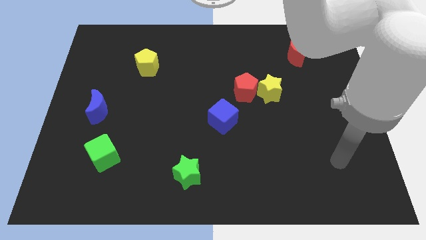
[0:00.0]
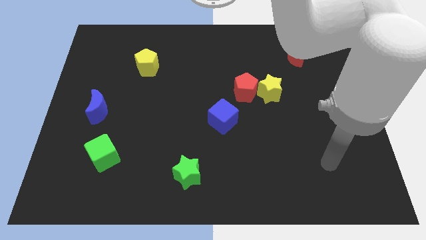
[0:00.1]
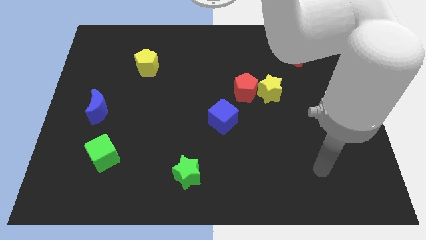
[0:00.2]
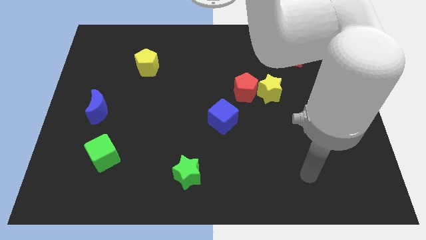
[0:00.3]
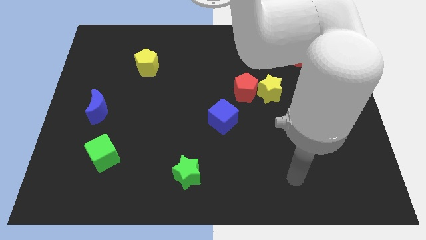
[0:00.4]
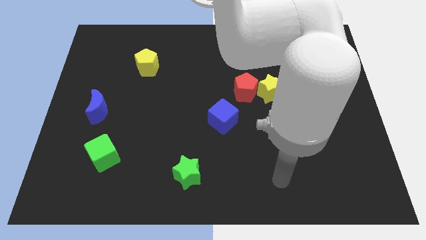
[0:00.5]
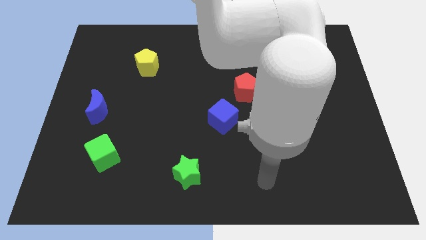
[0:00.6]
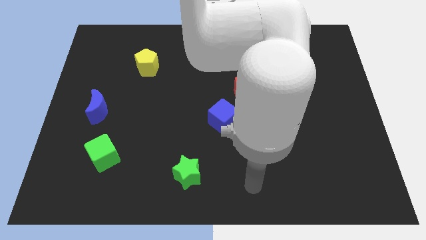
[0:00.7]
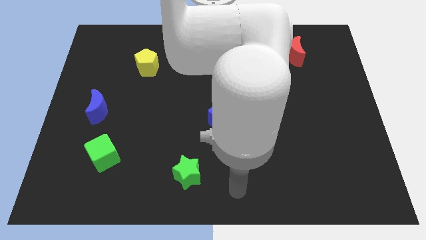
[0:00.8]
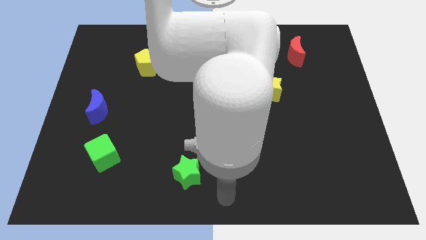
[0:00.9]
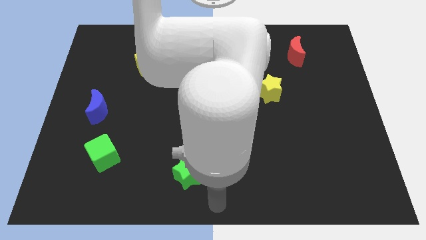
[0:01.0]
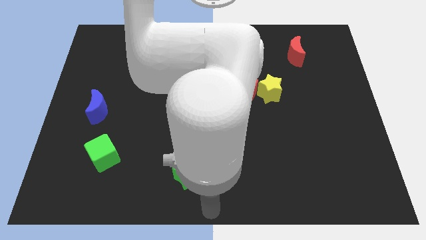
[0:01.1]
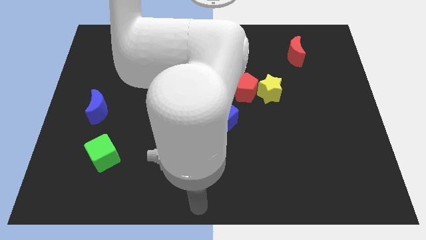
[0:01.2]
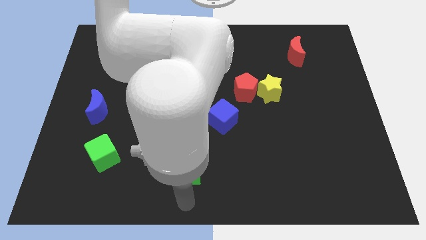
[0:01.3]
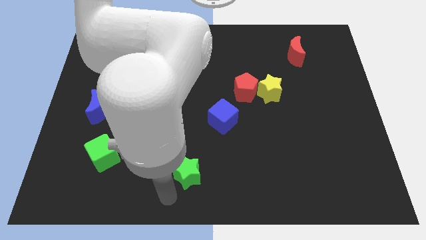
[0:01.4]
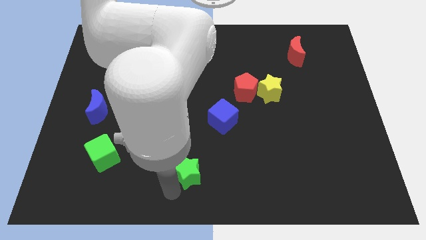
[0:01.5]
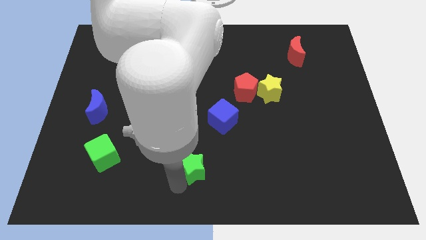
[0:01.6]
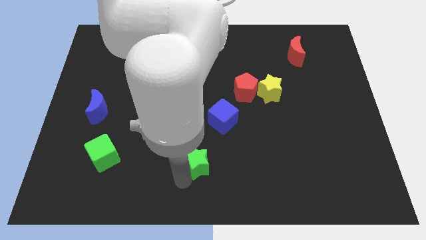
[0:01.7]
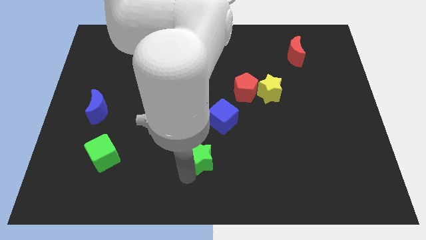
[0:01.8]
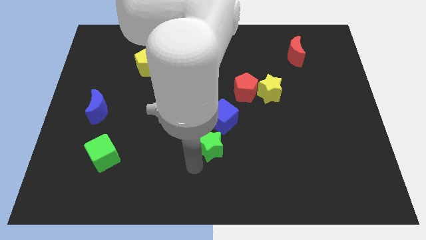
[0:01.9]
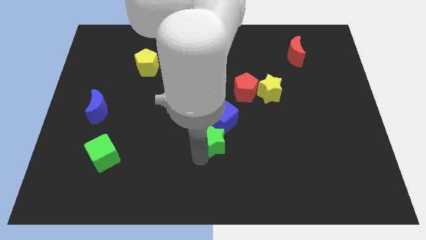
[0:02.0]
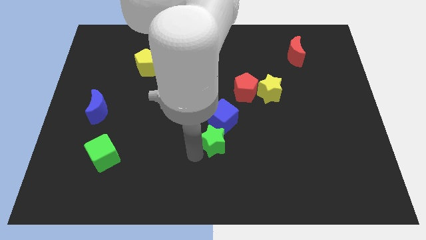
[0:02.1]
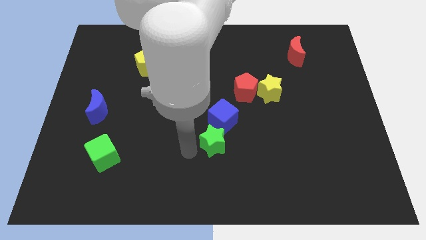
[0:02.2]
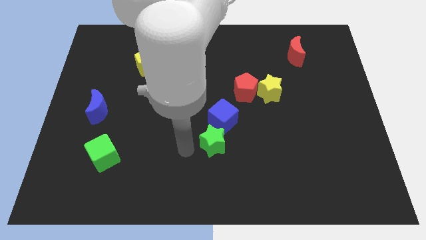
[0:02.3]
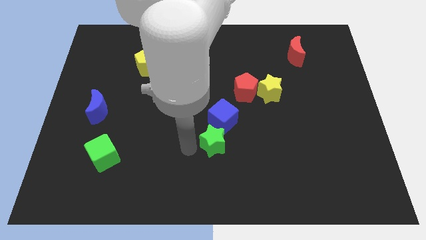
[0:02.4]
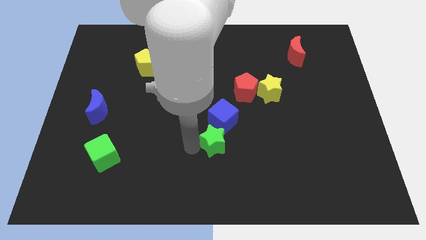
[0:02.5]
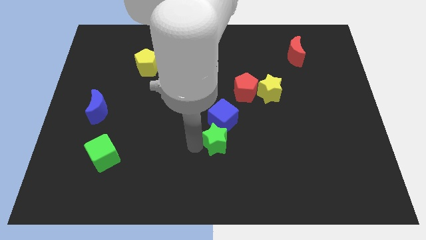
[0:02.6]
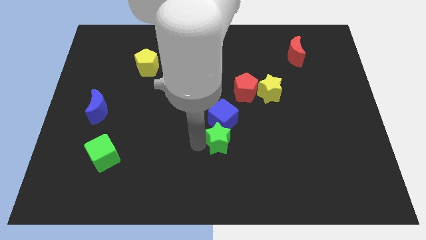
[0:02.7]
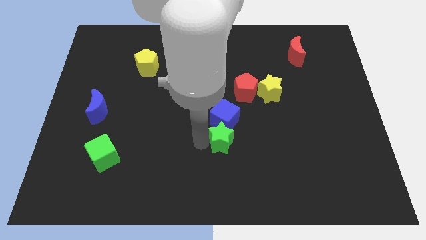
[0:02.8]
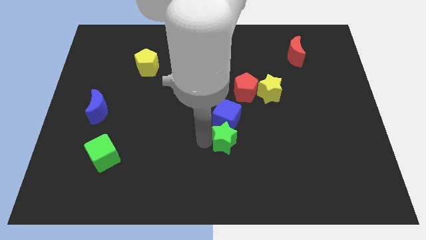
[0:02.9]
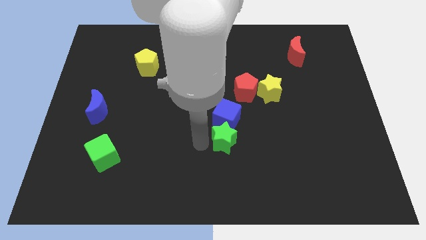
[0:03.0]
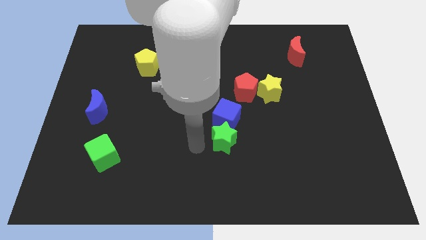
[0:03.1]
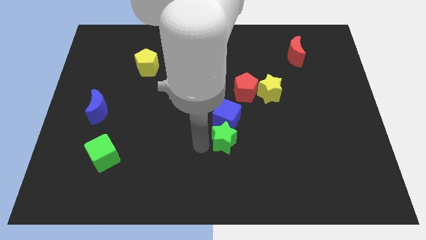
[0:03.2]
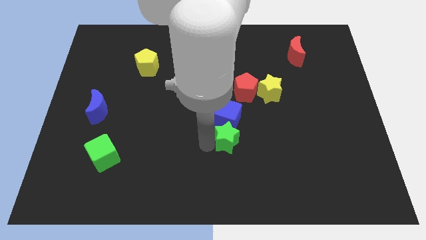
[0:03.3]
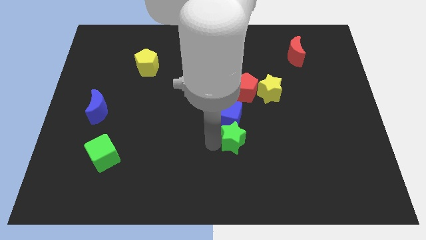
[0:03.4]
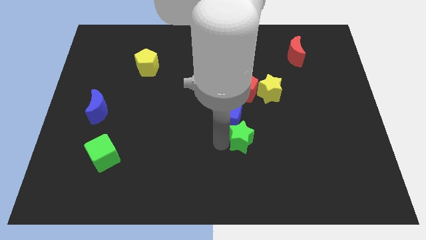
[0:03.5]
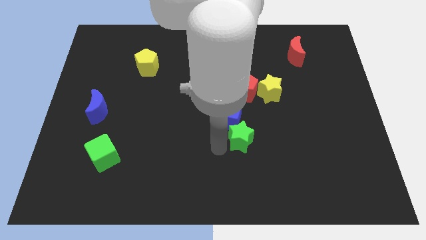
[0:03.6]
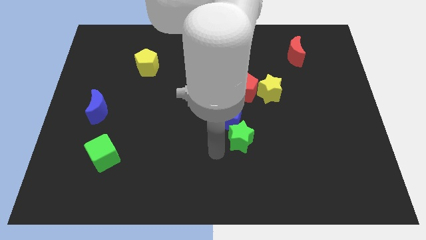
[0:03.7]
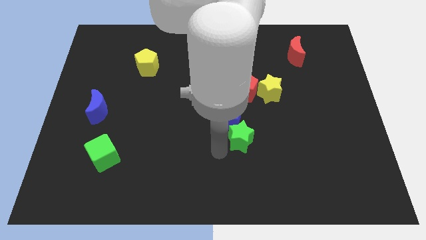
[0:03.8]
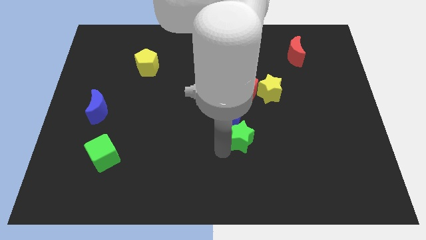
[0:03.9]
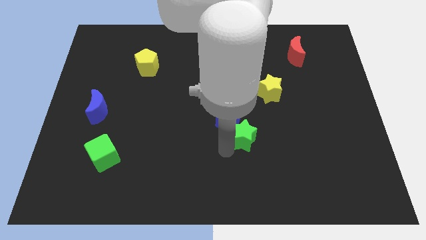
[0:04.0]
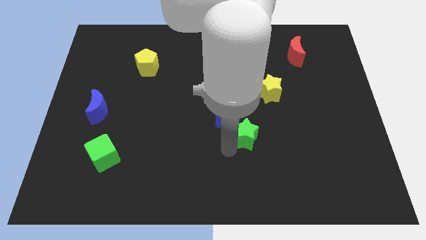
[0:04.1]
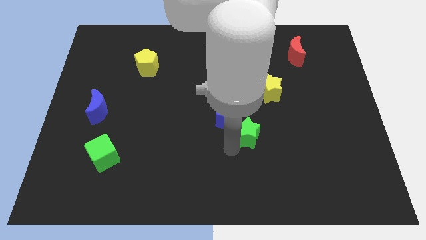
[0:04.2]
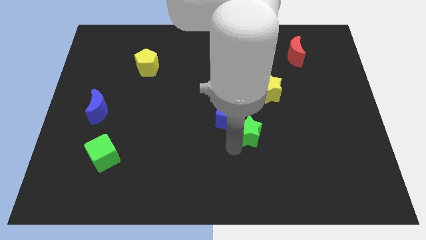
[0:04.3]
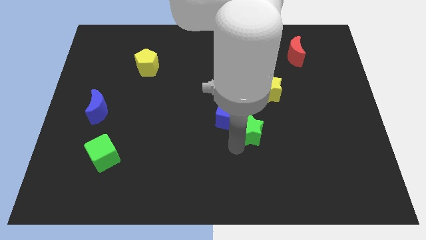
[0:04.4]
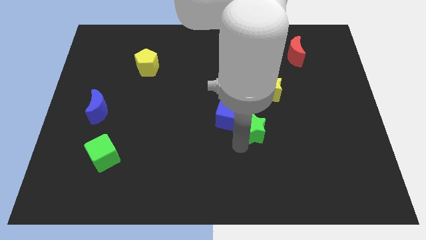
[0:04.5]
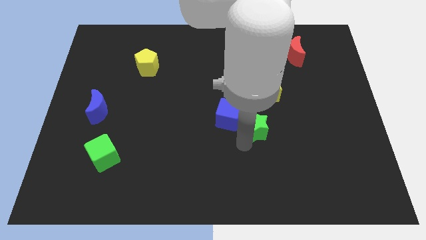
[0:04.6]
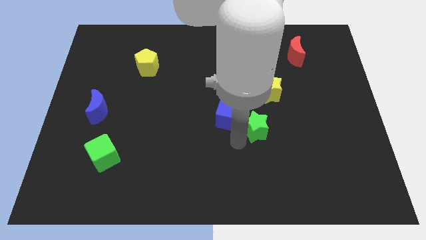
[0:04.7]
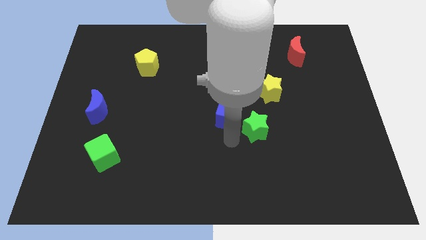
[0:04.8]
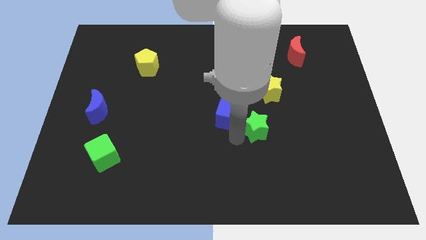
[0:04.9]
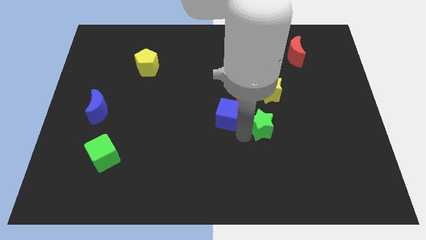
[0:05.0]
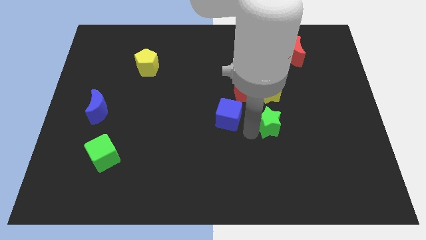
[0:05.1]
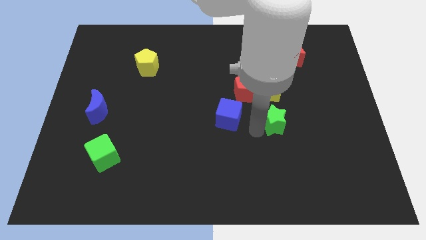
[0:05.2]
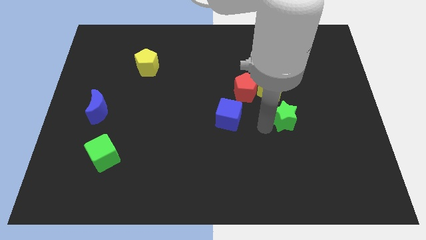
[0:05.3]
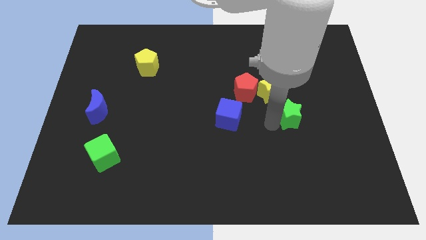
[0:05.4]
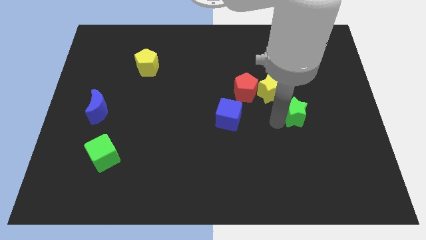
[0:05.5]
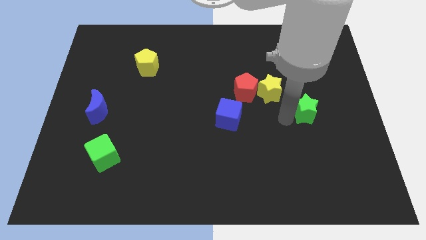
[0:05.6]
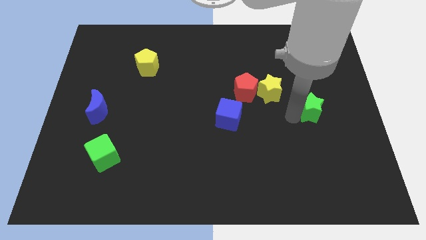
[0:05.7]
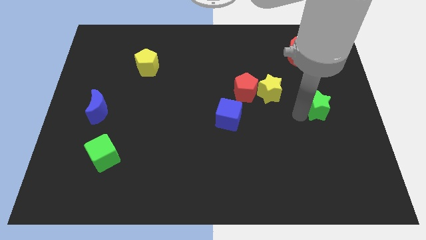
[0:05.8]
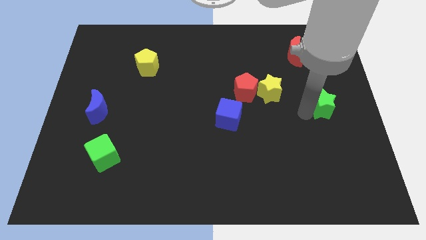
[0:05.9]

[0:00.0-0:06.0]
push the green star to the right side of the board

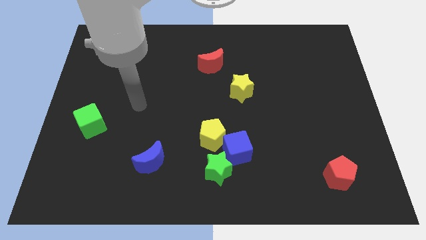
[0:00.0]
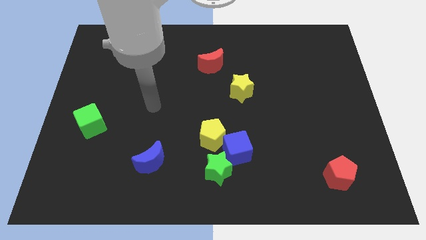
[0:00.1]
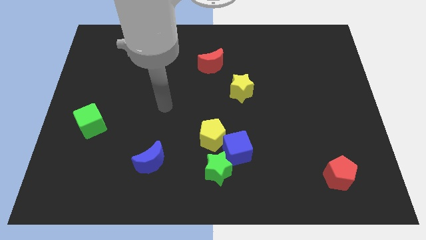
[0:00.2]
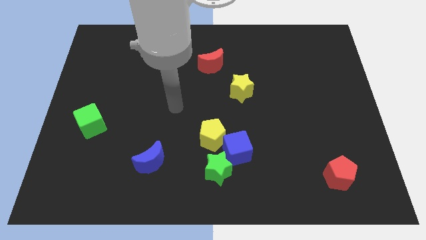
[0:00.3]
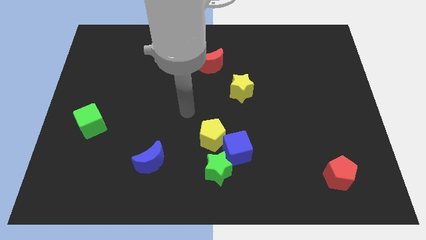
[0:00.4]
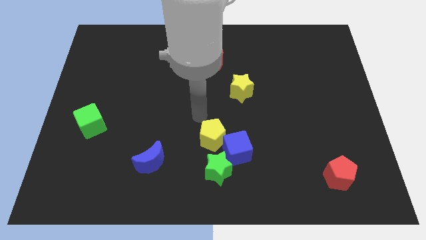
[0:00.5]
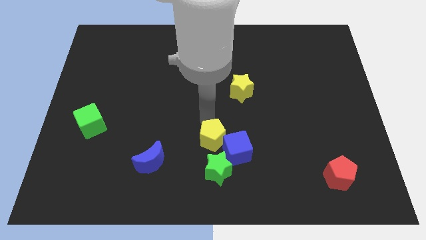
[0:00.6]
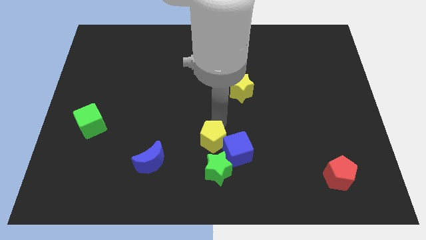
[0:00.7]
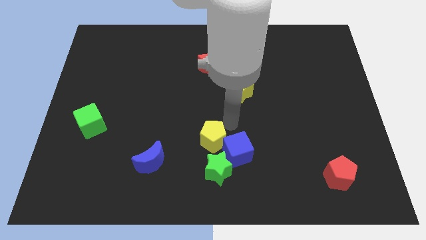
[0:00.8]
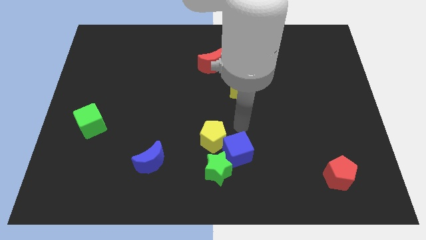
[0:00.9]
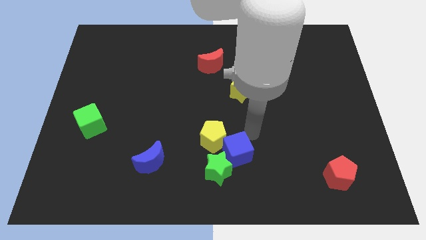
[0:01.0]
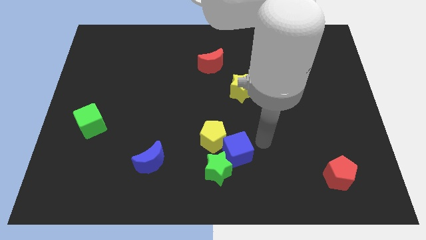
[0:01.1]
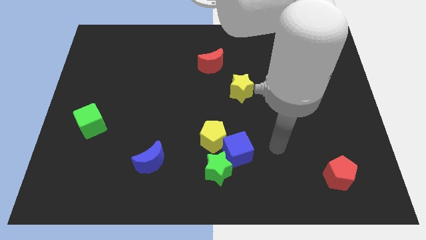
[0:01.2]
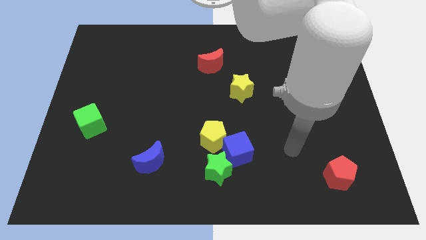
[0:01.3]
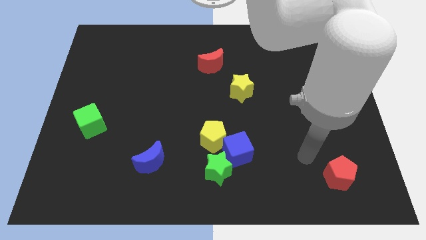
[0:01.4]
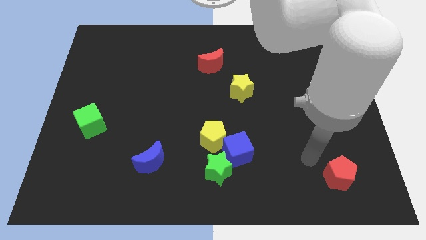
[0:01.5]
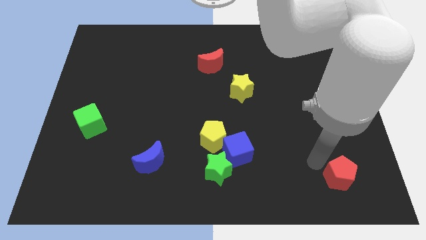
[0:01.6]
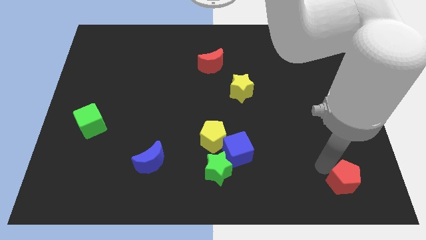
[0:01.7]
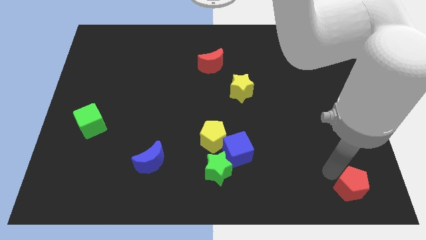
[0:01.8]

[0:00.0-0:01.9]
put the red pentagon to the lower right corner
